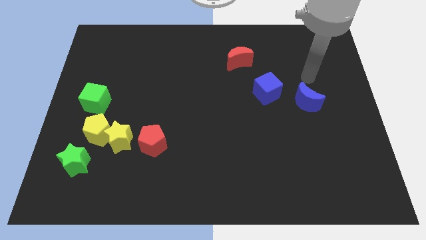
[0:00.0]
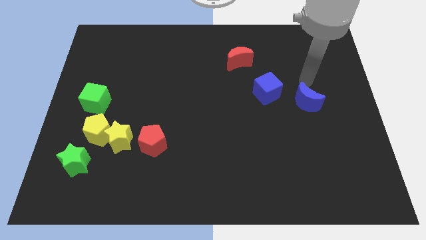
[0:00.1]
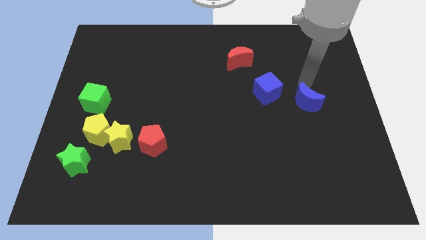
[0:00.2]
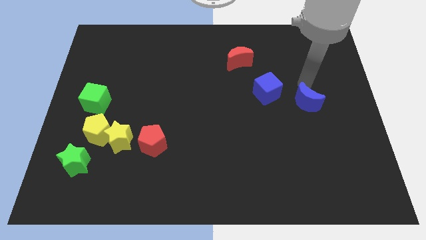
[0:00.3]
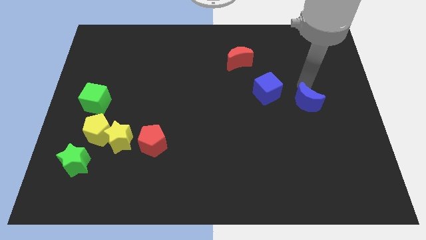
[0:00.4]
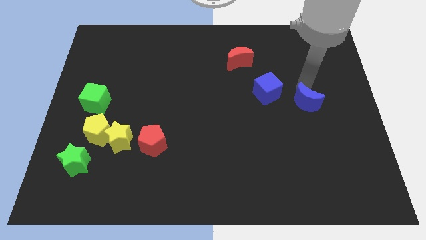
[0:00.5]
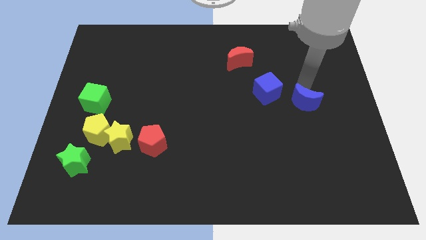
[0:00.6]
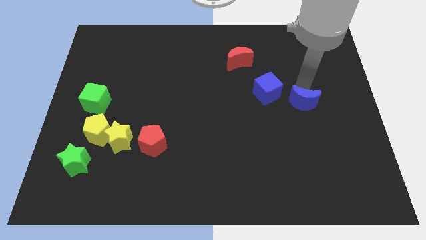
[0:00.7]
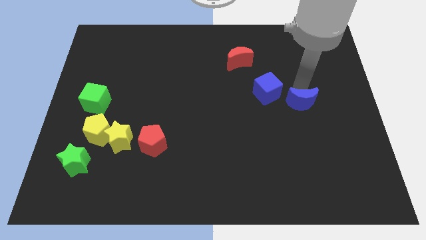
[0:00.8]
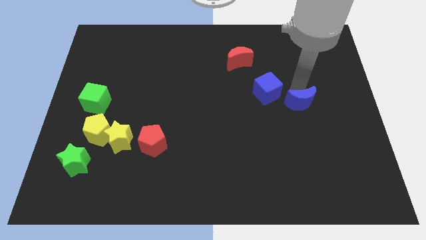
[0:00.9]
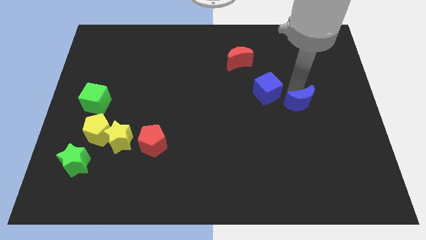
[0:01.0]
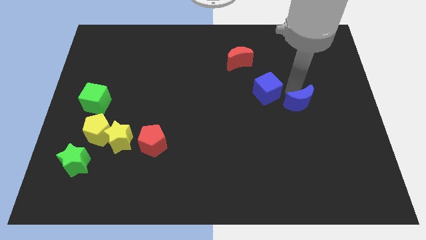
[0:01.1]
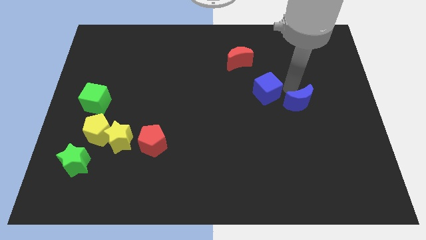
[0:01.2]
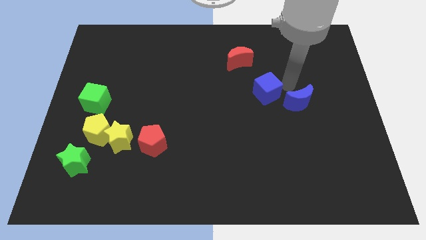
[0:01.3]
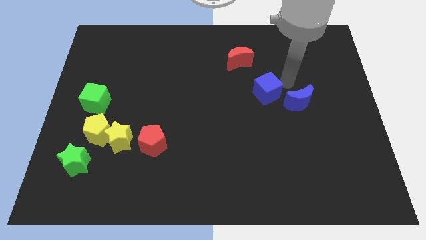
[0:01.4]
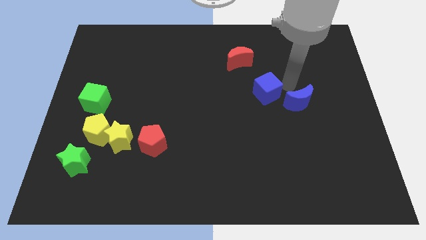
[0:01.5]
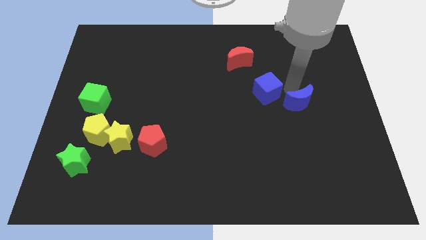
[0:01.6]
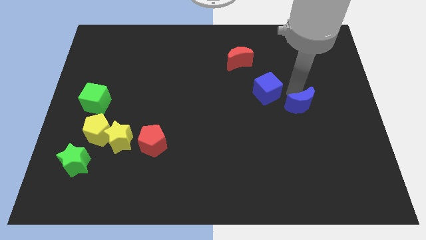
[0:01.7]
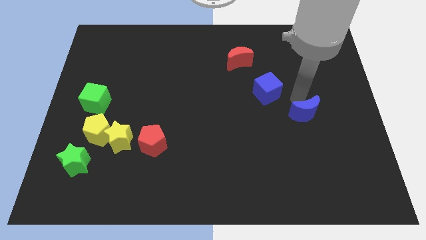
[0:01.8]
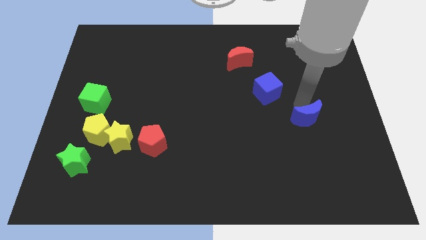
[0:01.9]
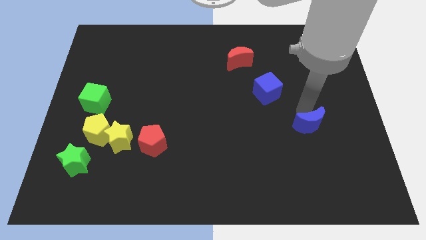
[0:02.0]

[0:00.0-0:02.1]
push the blue moon a little downwards

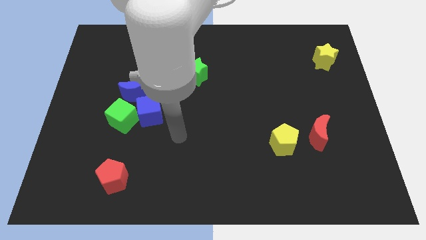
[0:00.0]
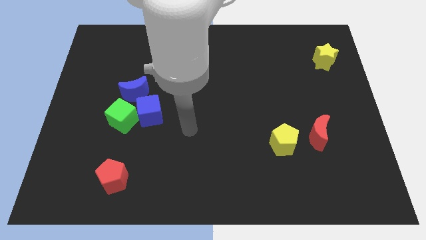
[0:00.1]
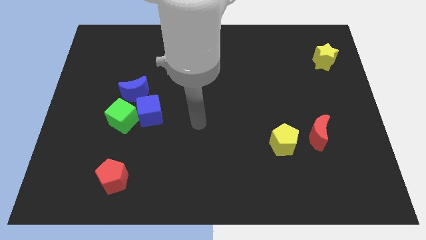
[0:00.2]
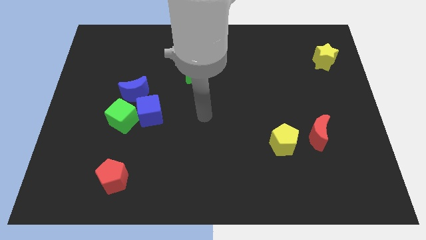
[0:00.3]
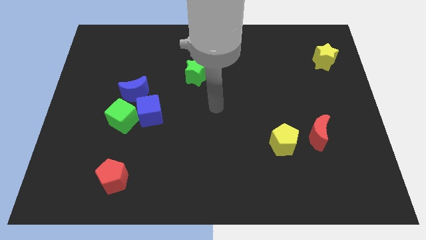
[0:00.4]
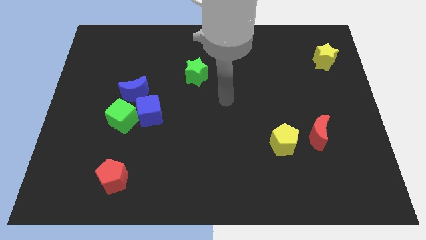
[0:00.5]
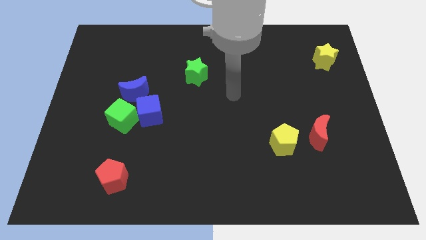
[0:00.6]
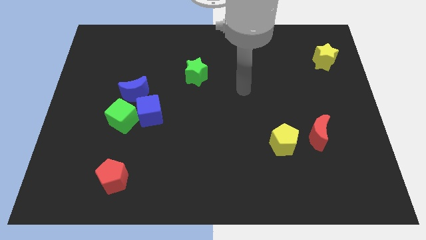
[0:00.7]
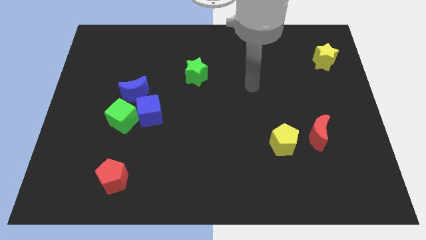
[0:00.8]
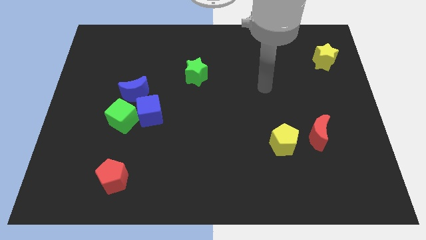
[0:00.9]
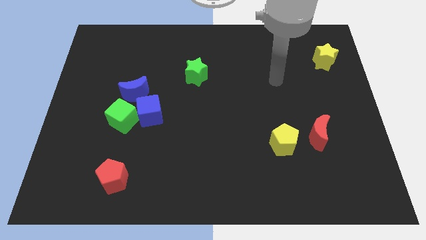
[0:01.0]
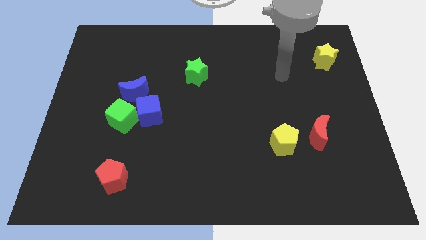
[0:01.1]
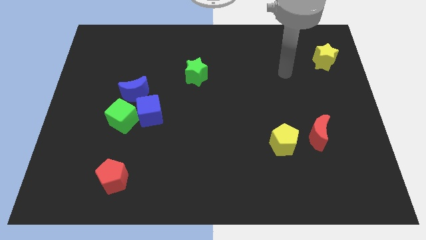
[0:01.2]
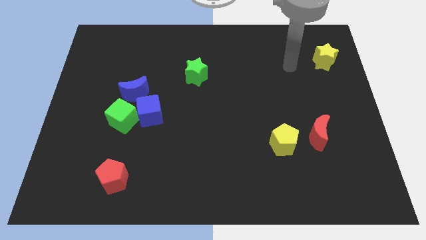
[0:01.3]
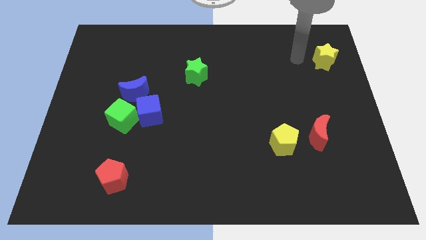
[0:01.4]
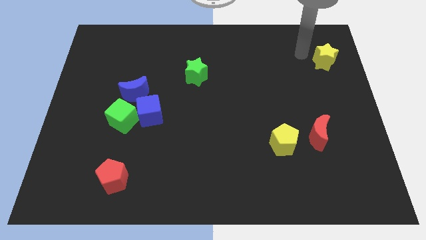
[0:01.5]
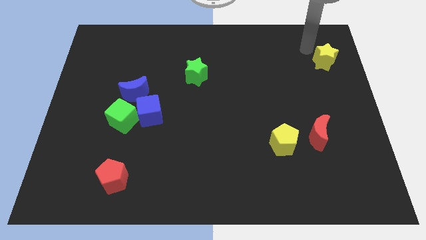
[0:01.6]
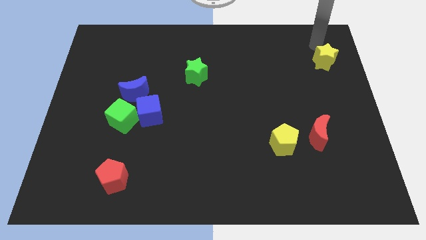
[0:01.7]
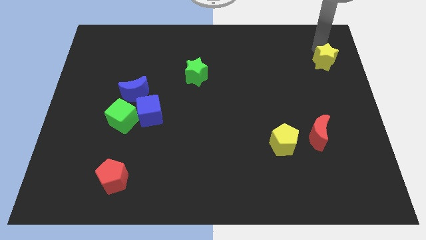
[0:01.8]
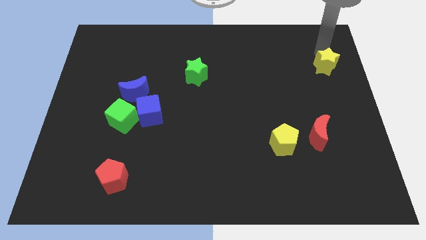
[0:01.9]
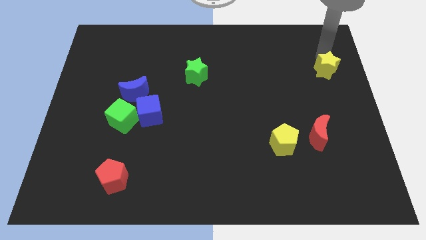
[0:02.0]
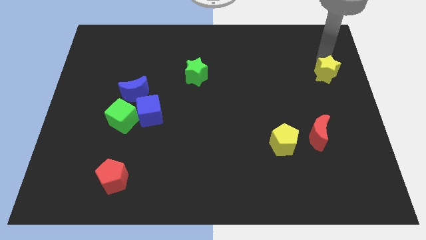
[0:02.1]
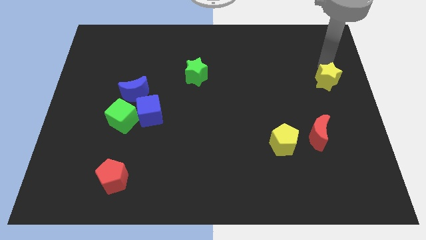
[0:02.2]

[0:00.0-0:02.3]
push the yellow star down a little

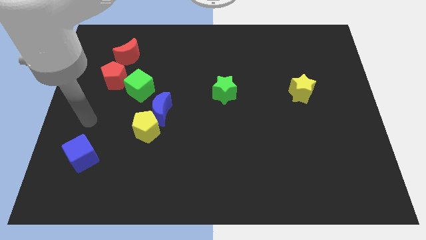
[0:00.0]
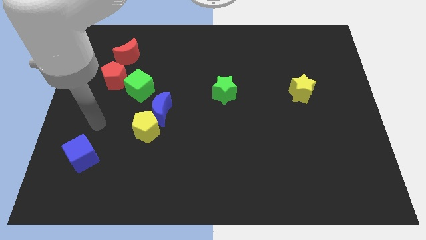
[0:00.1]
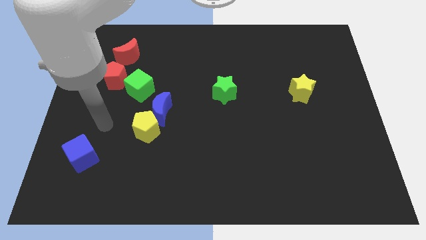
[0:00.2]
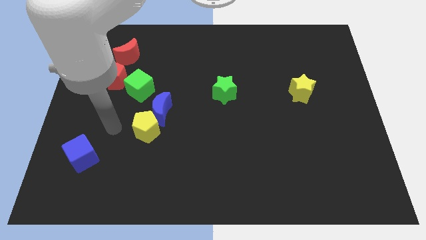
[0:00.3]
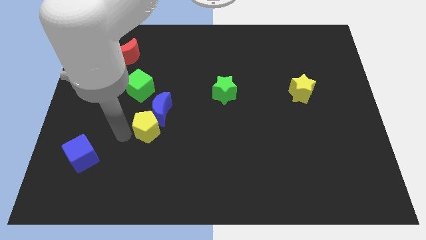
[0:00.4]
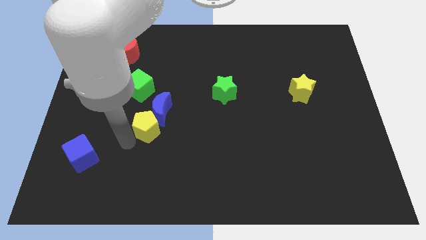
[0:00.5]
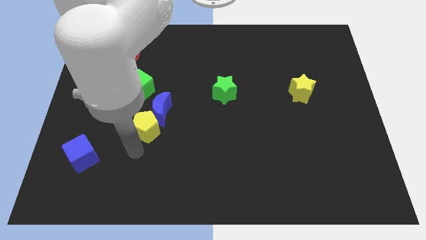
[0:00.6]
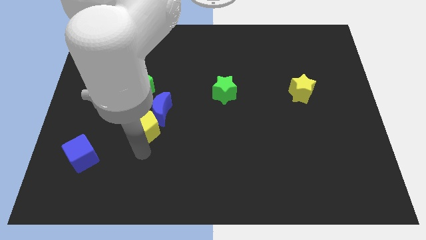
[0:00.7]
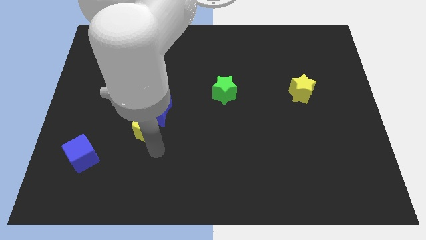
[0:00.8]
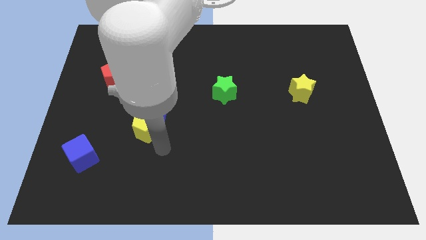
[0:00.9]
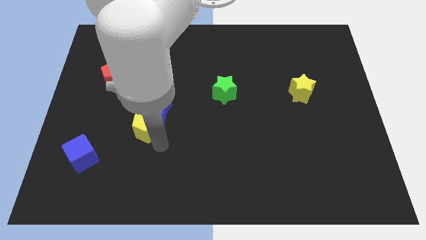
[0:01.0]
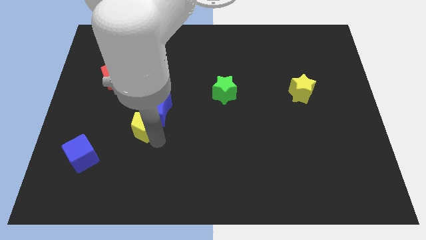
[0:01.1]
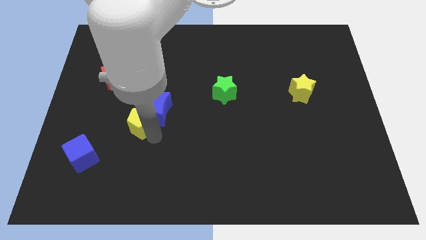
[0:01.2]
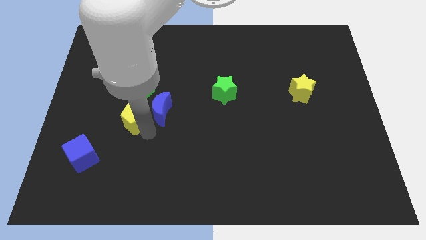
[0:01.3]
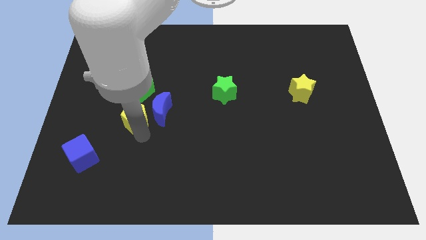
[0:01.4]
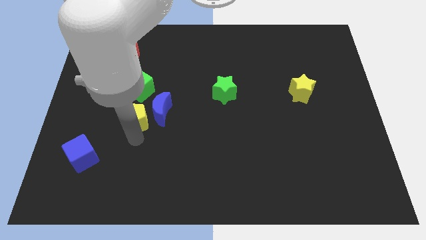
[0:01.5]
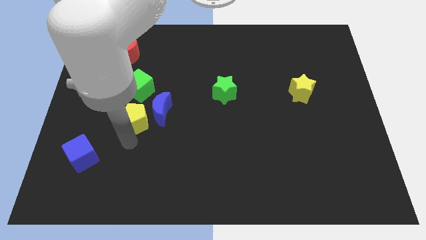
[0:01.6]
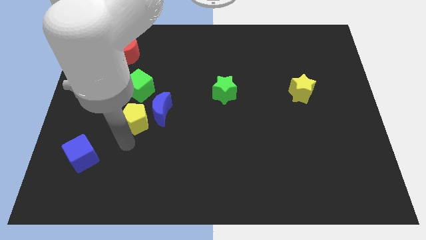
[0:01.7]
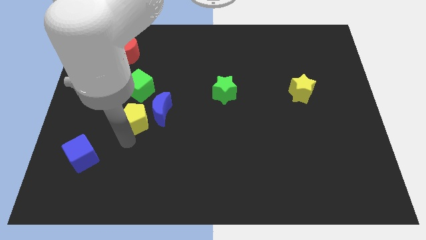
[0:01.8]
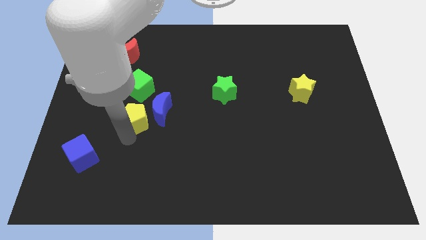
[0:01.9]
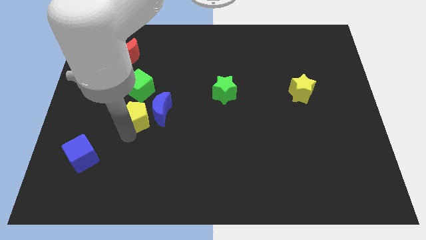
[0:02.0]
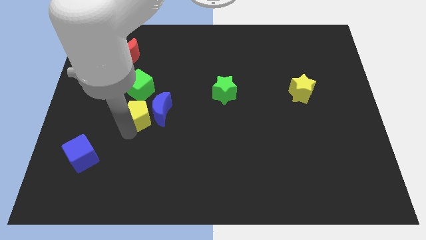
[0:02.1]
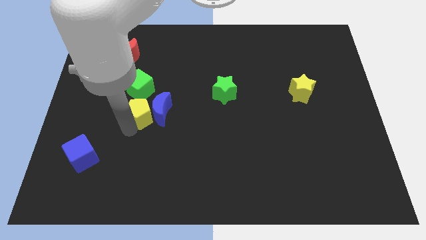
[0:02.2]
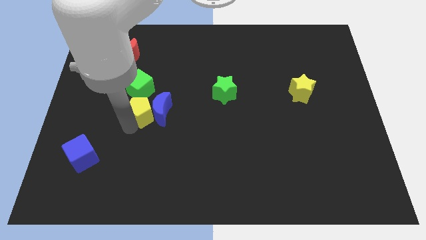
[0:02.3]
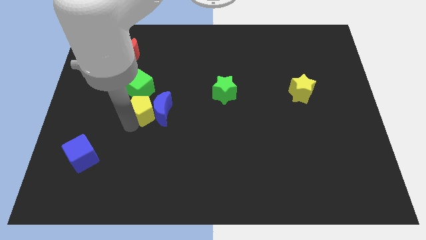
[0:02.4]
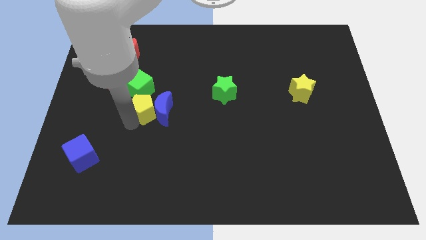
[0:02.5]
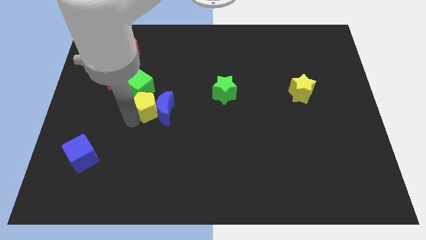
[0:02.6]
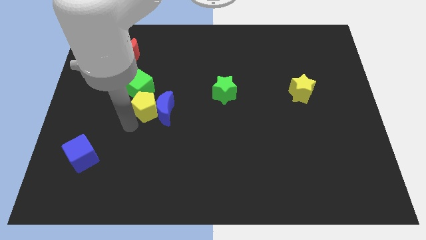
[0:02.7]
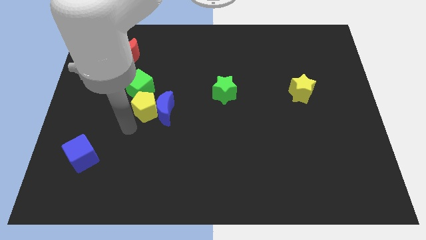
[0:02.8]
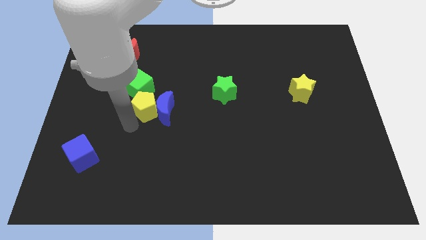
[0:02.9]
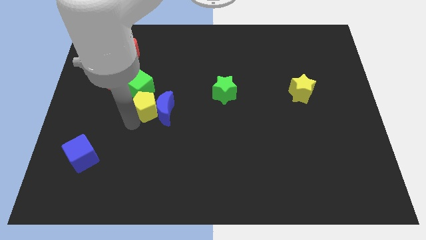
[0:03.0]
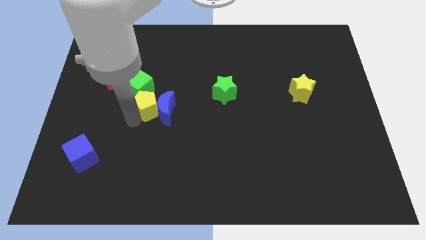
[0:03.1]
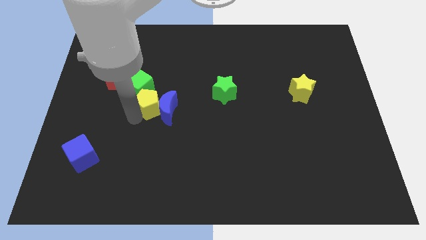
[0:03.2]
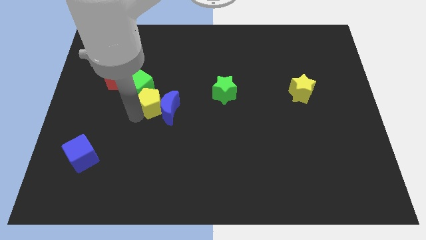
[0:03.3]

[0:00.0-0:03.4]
move the yellow pentagon somewhat upwards
